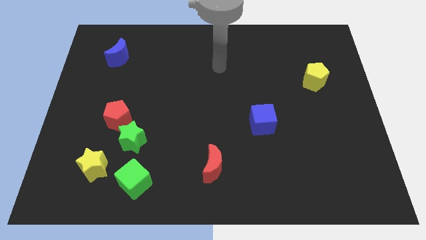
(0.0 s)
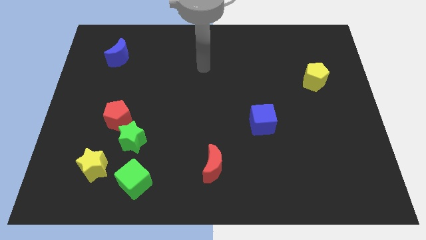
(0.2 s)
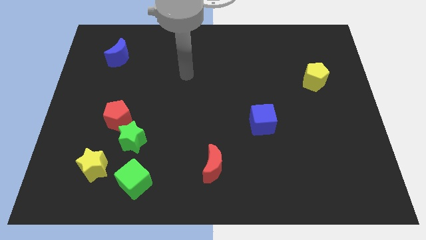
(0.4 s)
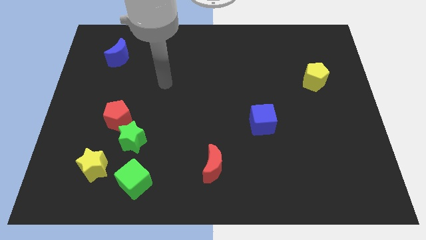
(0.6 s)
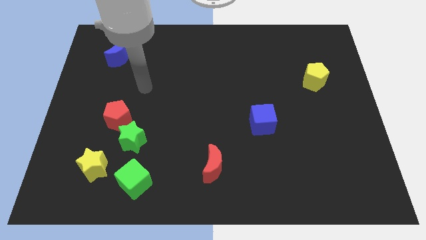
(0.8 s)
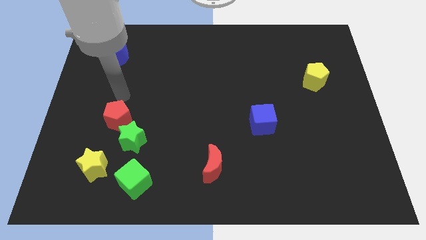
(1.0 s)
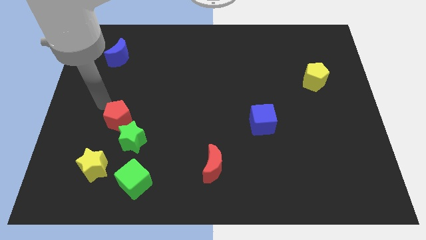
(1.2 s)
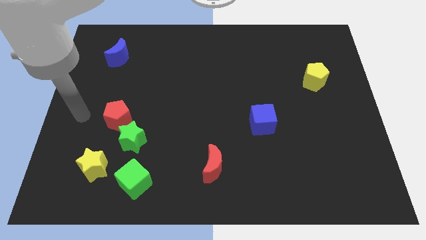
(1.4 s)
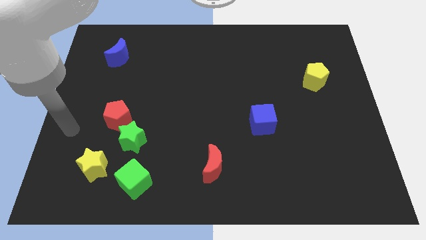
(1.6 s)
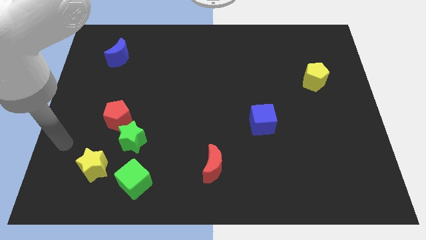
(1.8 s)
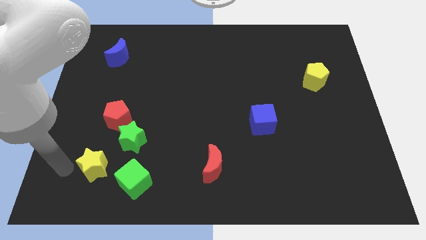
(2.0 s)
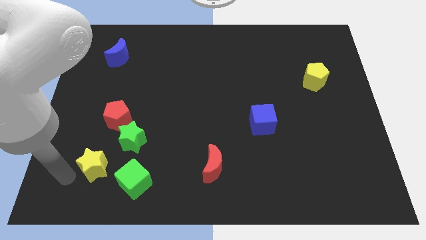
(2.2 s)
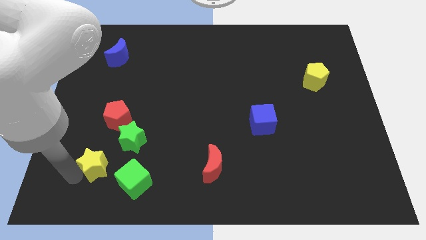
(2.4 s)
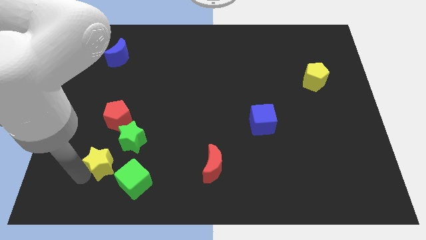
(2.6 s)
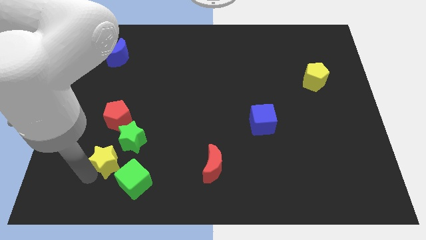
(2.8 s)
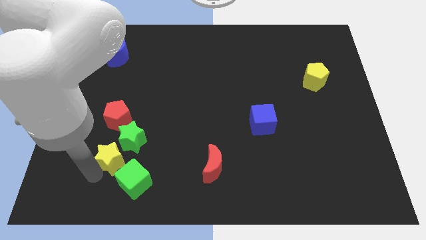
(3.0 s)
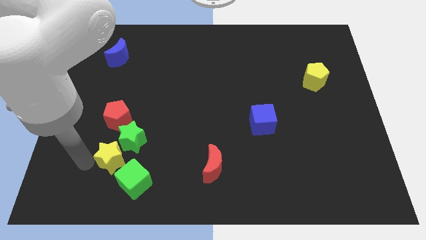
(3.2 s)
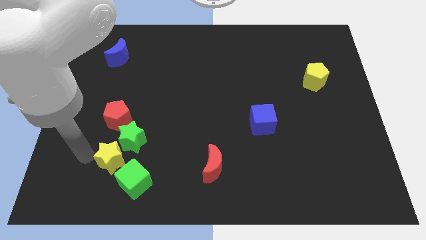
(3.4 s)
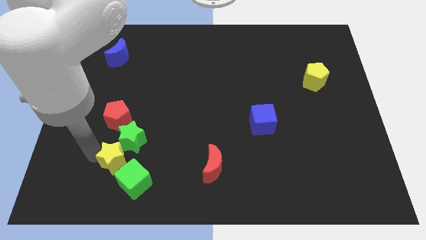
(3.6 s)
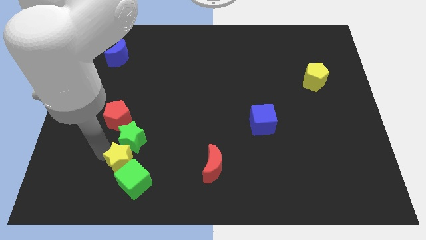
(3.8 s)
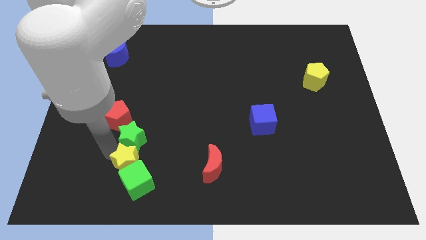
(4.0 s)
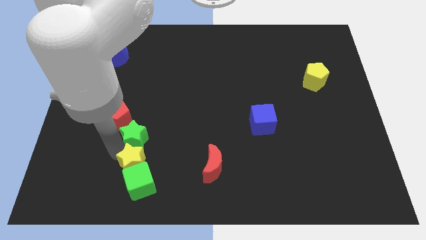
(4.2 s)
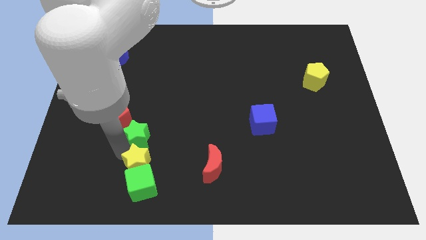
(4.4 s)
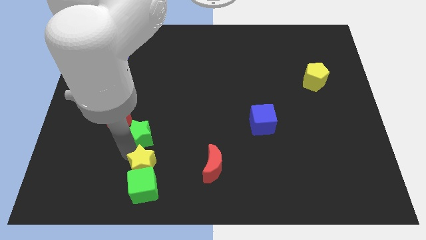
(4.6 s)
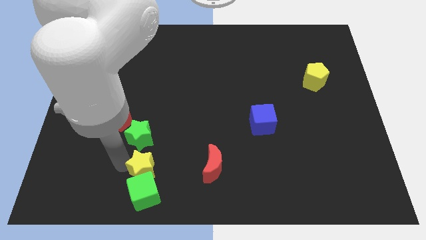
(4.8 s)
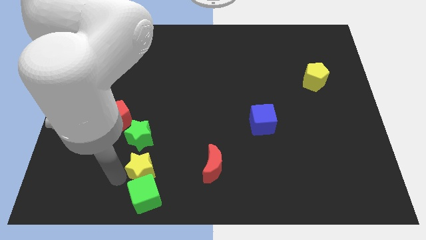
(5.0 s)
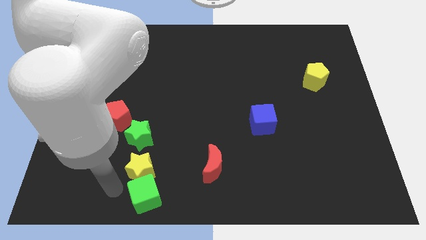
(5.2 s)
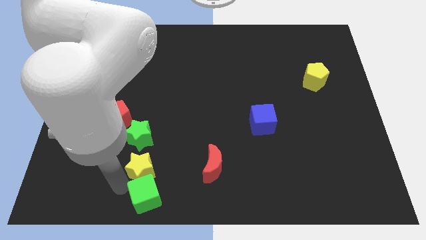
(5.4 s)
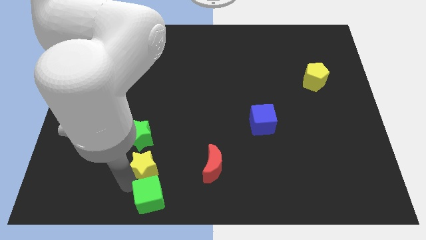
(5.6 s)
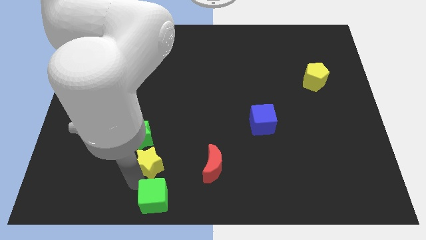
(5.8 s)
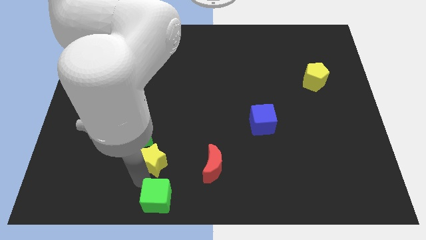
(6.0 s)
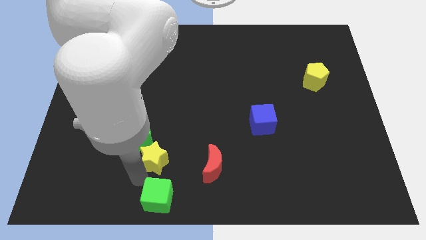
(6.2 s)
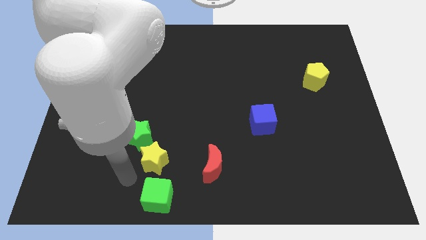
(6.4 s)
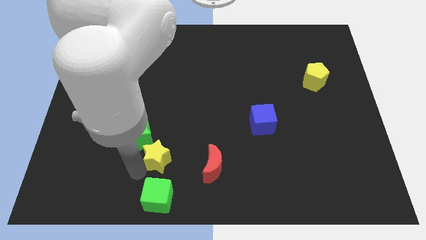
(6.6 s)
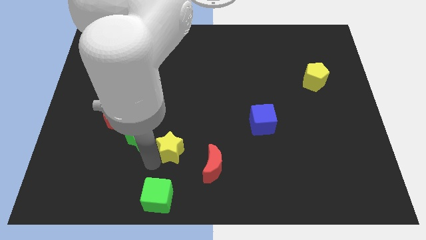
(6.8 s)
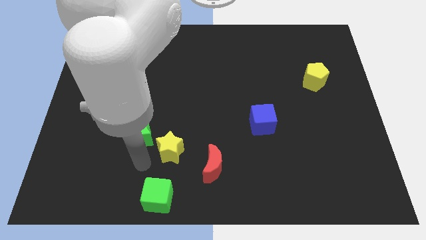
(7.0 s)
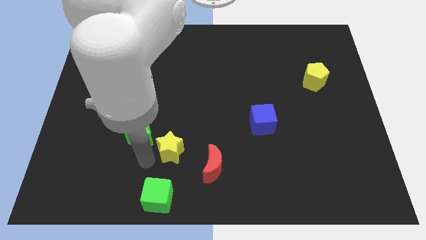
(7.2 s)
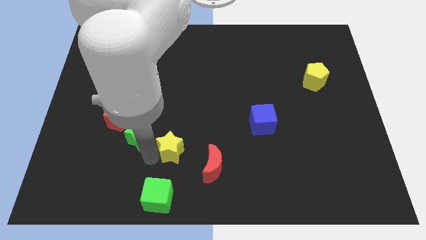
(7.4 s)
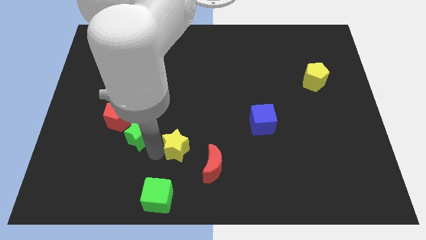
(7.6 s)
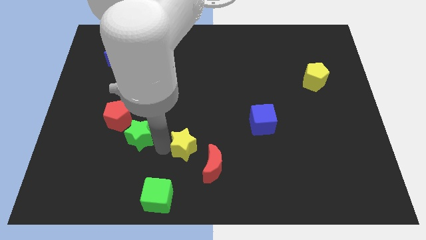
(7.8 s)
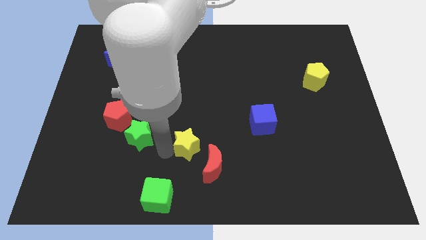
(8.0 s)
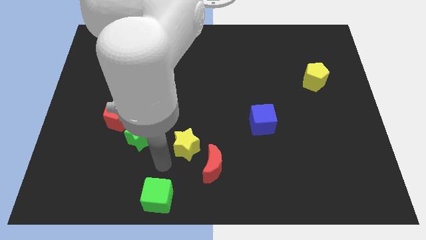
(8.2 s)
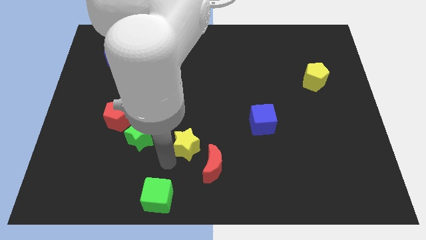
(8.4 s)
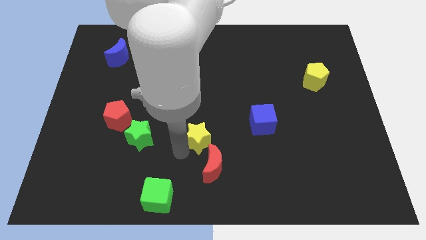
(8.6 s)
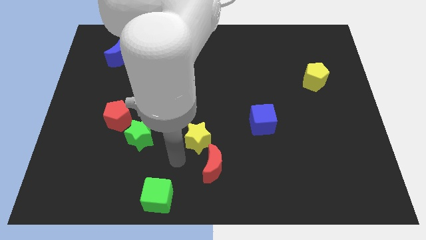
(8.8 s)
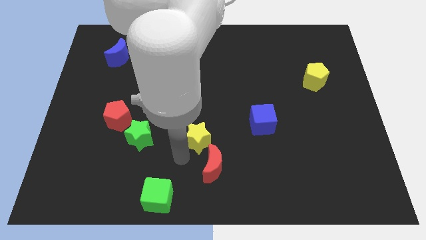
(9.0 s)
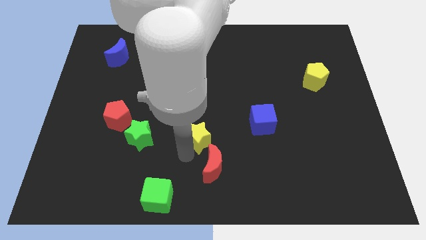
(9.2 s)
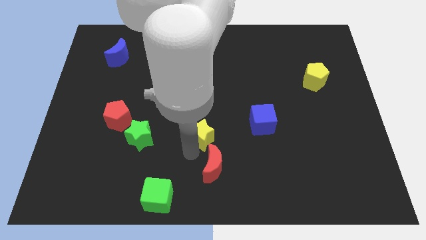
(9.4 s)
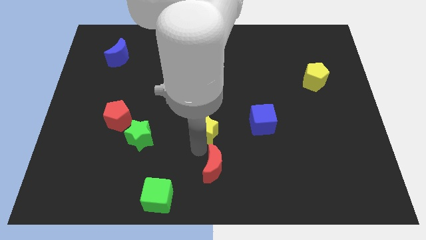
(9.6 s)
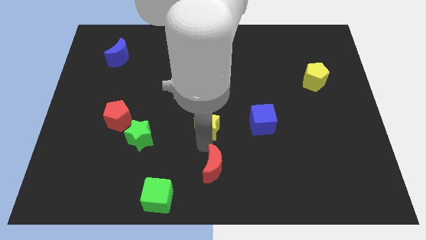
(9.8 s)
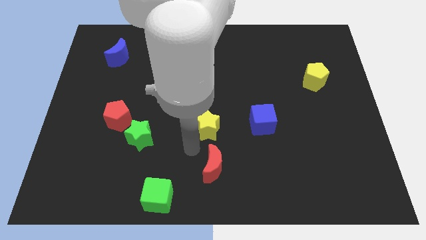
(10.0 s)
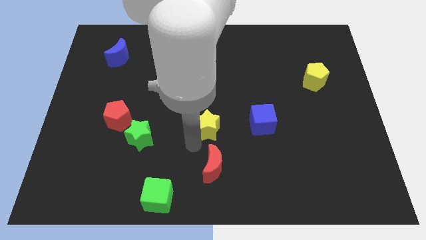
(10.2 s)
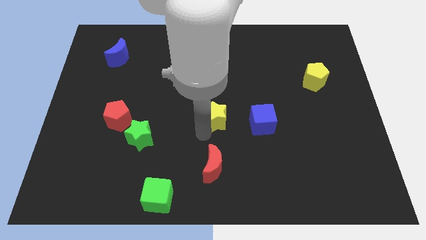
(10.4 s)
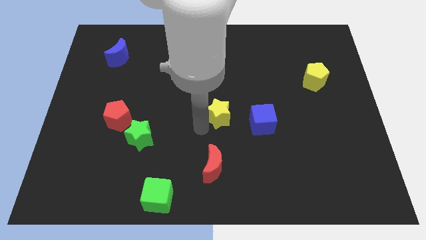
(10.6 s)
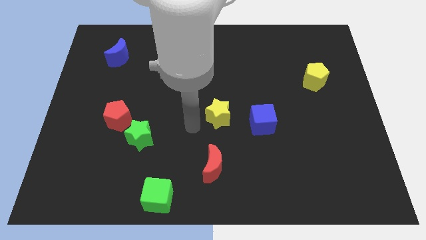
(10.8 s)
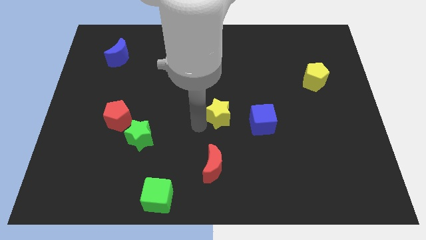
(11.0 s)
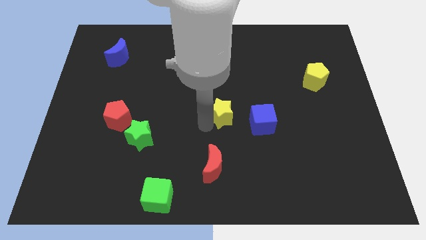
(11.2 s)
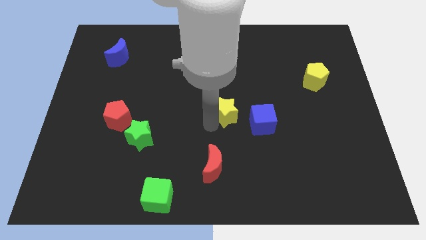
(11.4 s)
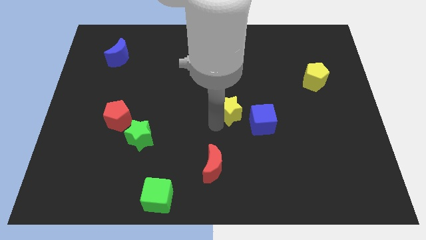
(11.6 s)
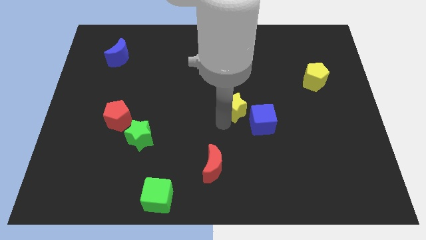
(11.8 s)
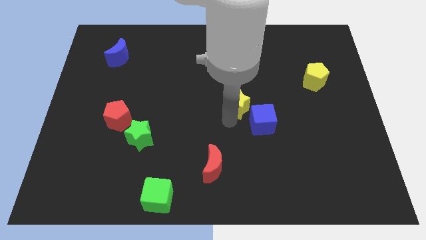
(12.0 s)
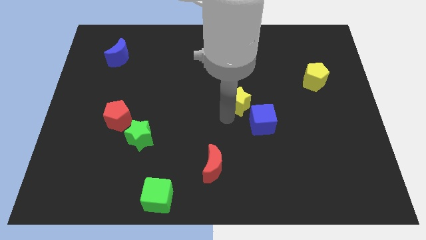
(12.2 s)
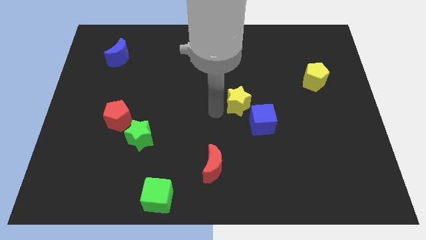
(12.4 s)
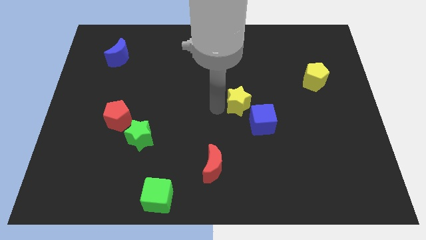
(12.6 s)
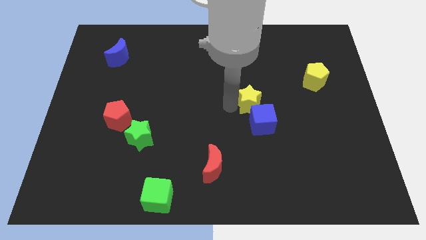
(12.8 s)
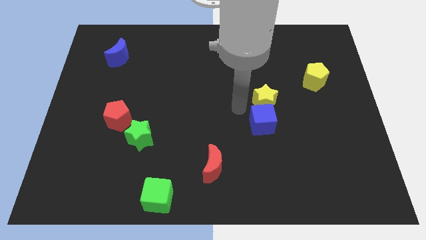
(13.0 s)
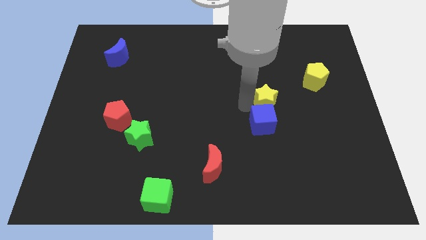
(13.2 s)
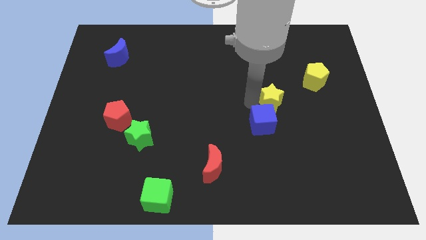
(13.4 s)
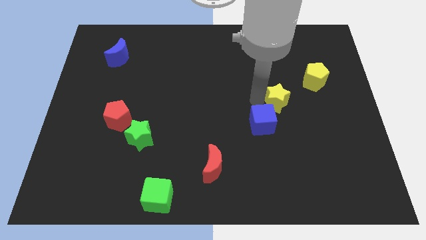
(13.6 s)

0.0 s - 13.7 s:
move the yellow star diagonally down and to the left of the yellow pentagon
